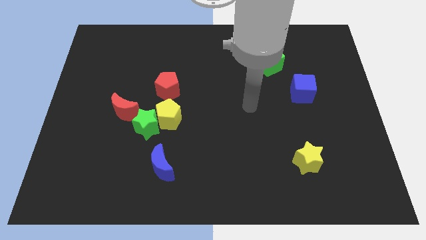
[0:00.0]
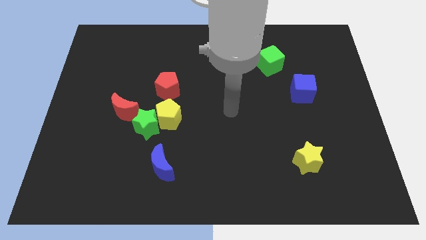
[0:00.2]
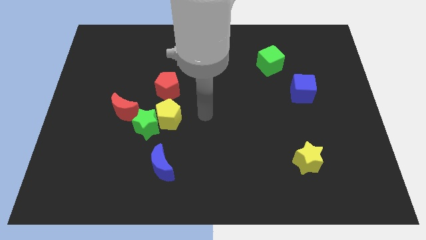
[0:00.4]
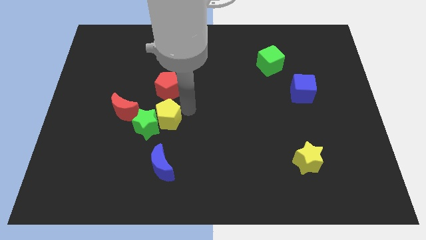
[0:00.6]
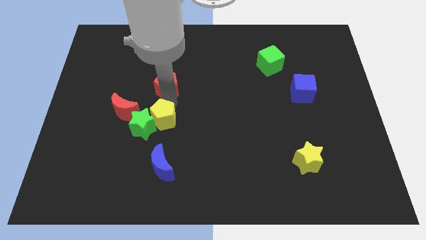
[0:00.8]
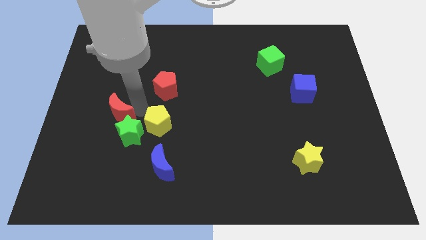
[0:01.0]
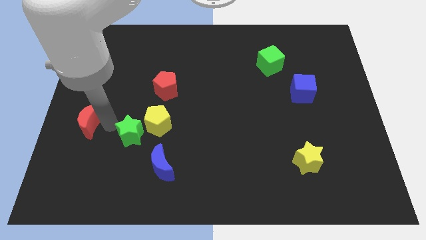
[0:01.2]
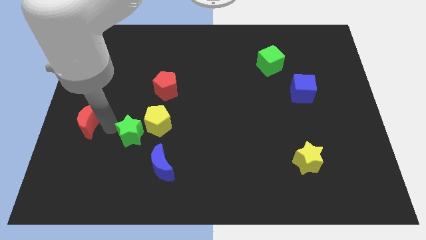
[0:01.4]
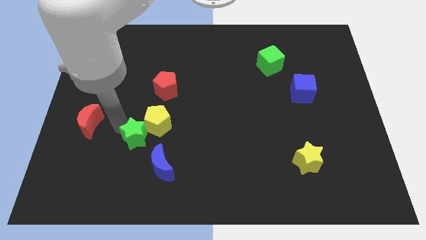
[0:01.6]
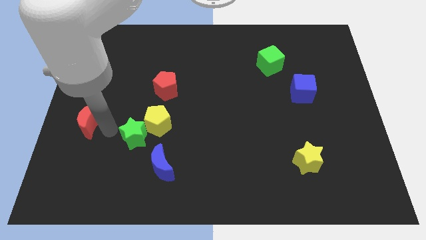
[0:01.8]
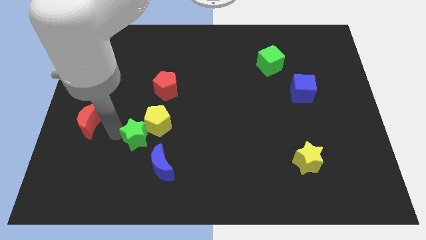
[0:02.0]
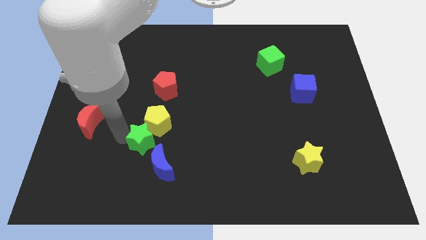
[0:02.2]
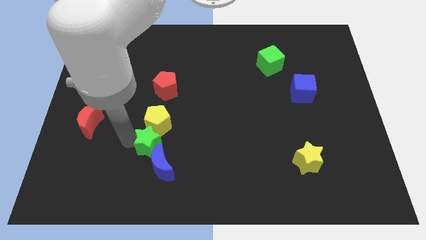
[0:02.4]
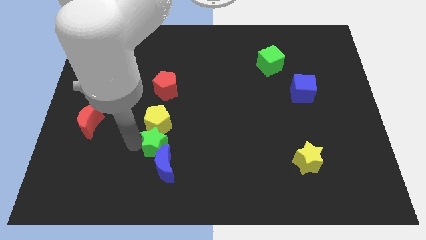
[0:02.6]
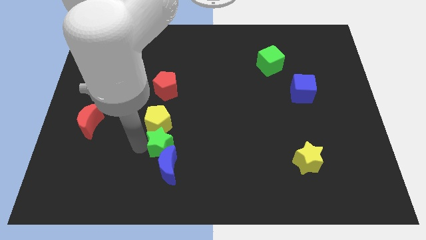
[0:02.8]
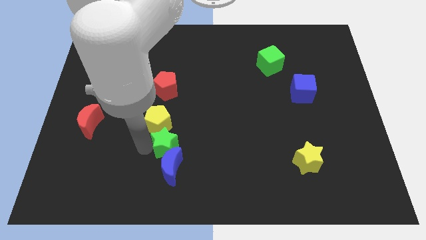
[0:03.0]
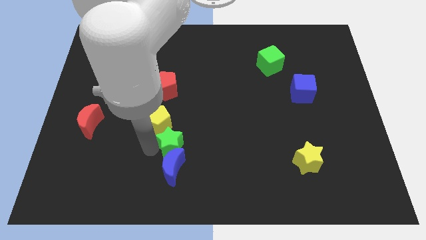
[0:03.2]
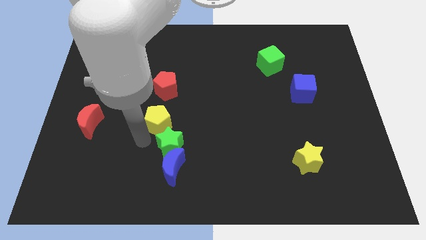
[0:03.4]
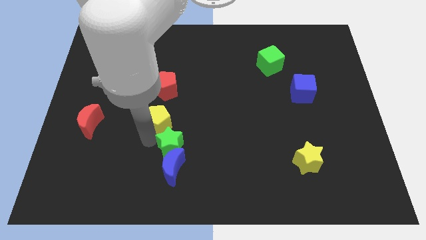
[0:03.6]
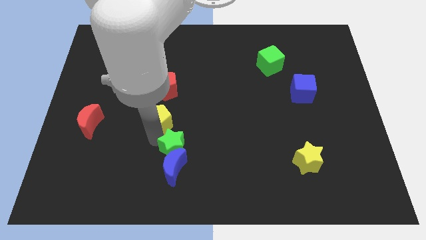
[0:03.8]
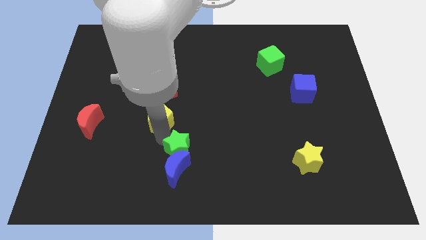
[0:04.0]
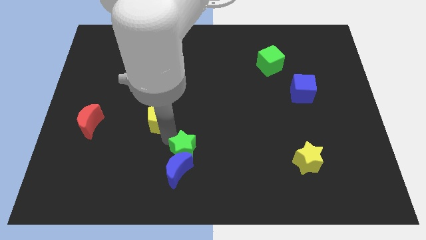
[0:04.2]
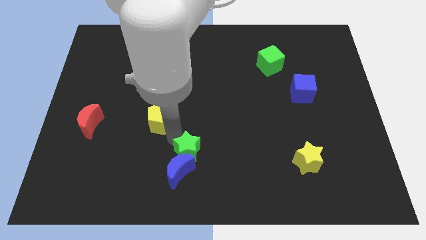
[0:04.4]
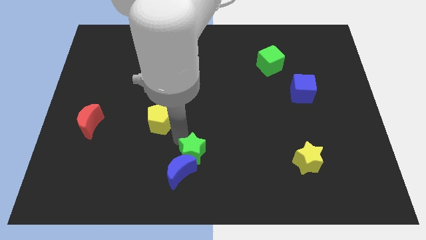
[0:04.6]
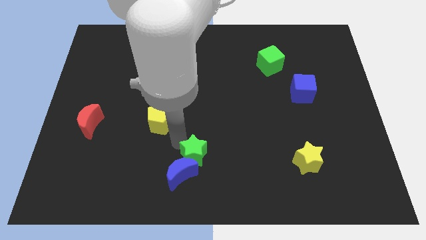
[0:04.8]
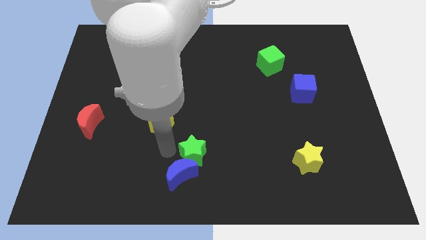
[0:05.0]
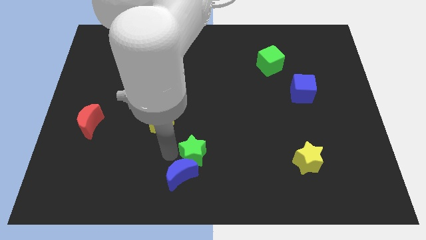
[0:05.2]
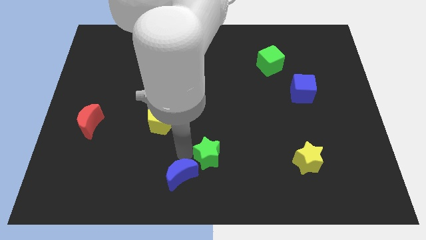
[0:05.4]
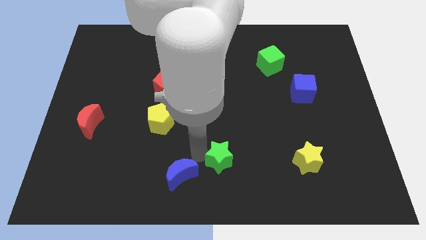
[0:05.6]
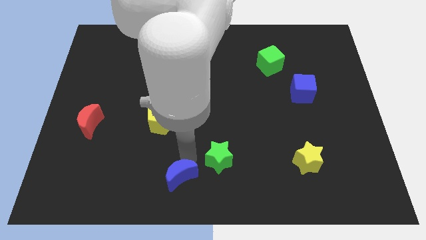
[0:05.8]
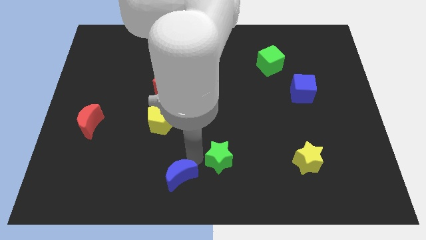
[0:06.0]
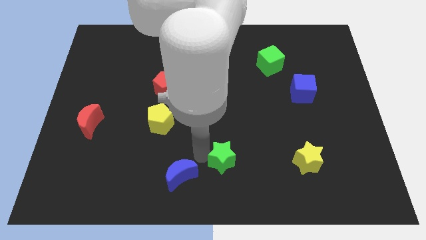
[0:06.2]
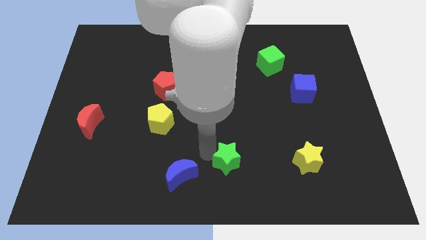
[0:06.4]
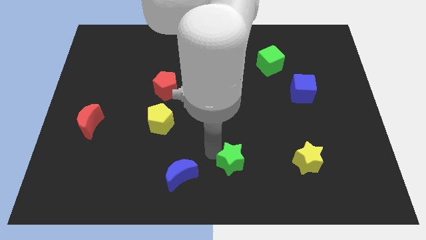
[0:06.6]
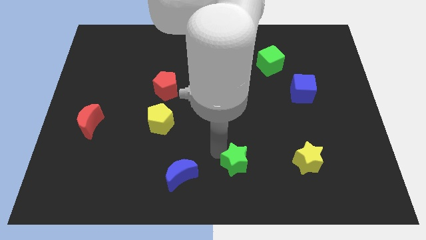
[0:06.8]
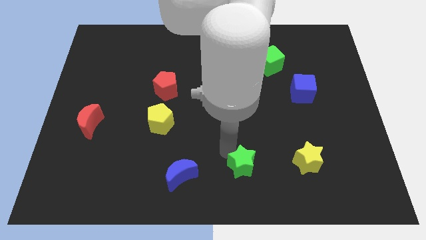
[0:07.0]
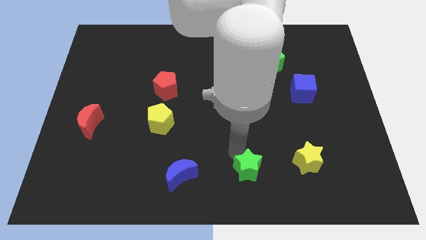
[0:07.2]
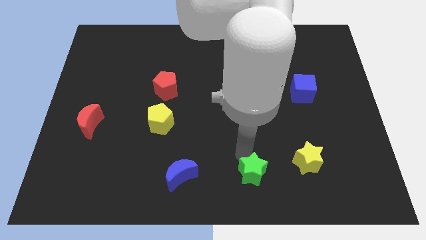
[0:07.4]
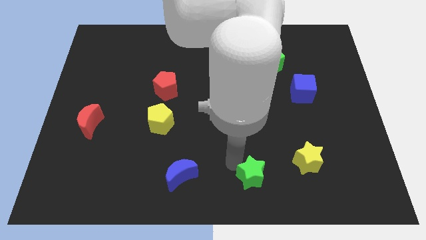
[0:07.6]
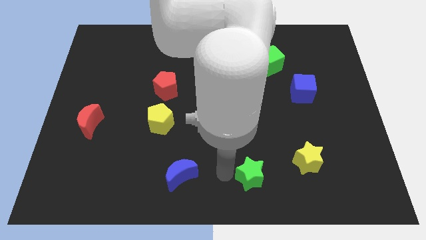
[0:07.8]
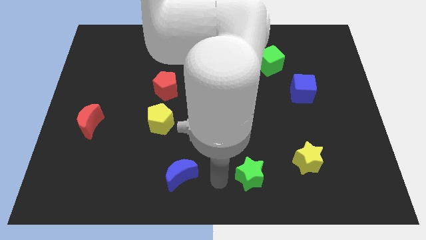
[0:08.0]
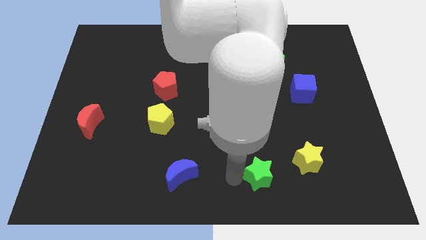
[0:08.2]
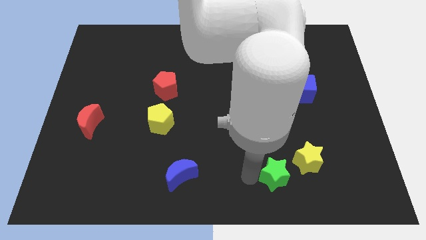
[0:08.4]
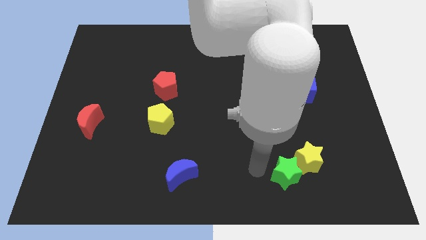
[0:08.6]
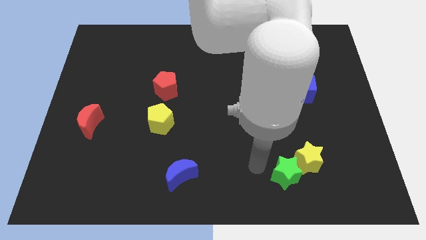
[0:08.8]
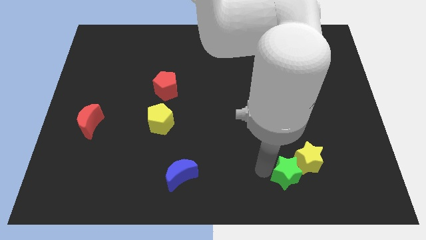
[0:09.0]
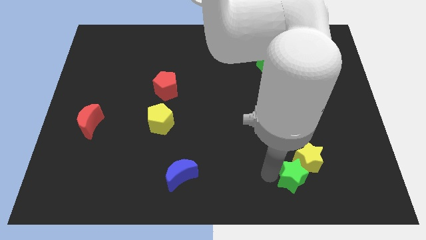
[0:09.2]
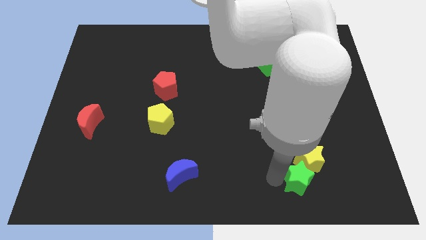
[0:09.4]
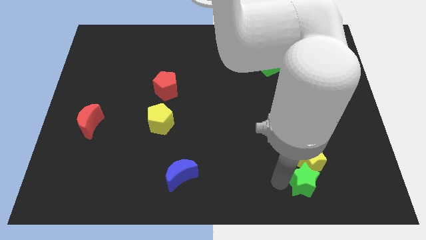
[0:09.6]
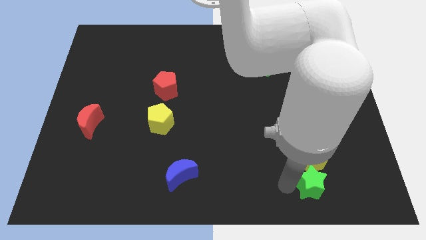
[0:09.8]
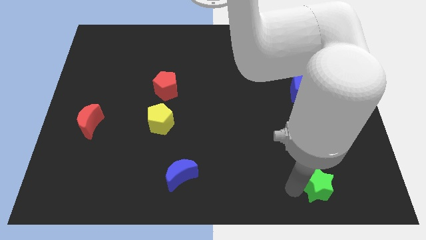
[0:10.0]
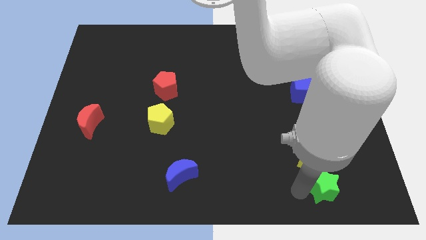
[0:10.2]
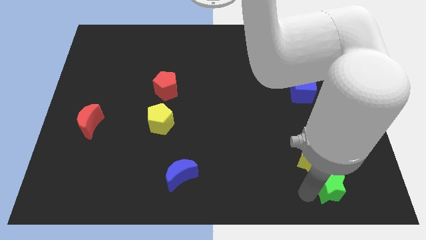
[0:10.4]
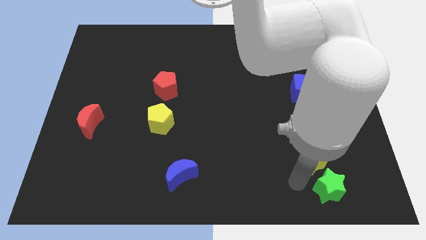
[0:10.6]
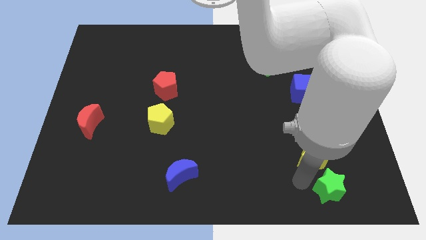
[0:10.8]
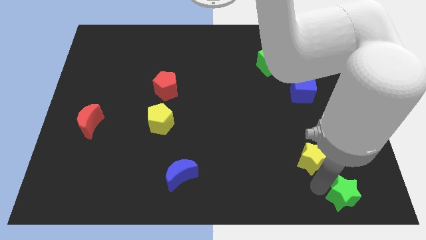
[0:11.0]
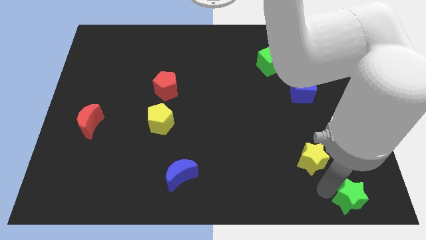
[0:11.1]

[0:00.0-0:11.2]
slide the green star to the bottom right of the board

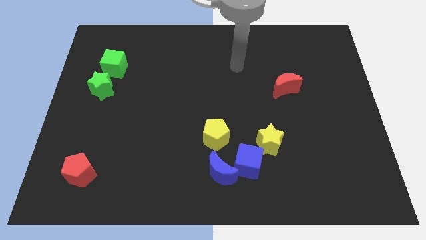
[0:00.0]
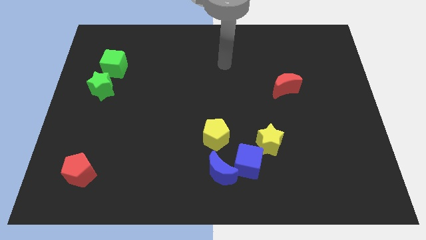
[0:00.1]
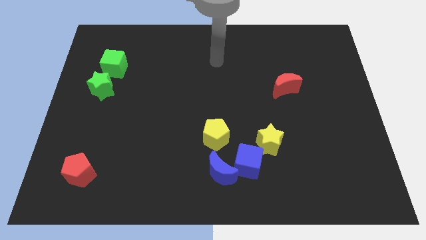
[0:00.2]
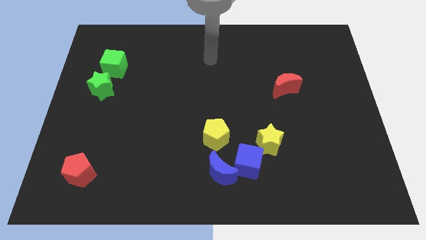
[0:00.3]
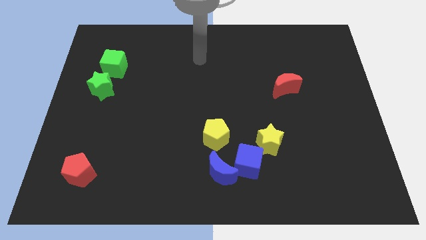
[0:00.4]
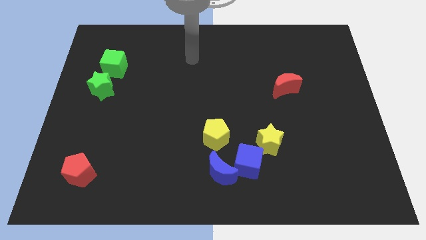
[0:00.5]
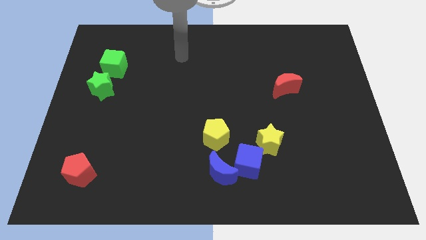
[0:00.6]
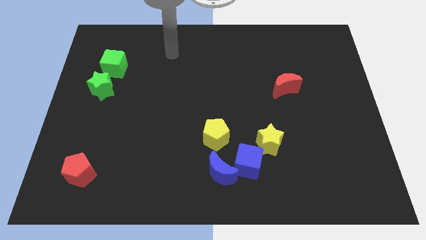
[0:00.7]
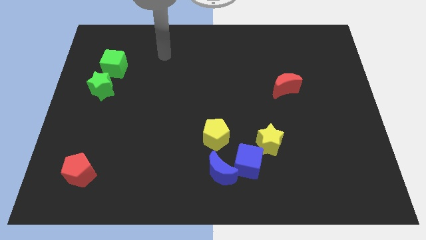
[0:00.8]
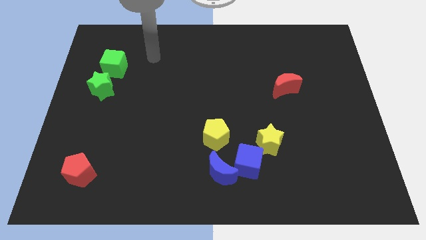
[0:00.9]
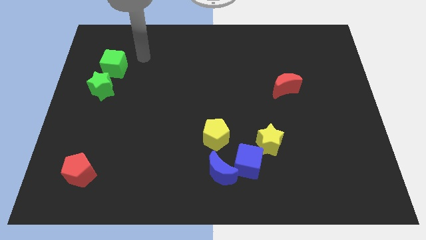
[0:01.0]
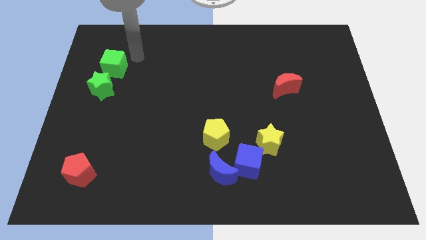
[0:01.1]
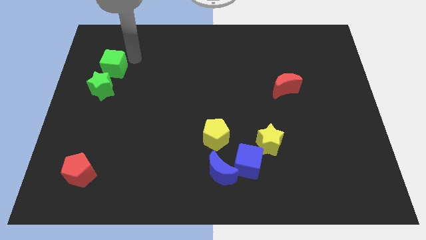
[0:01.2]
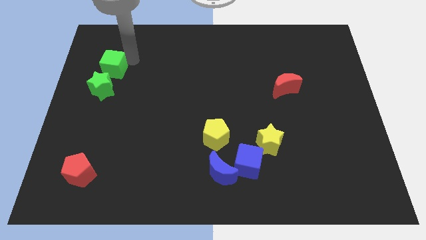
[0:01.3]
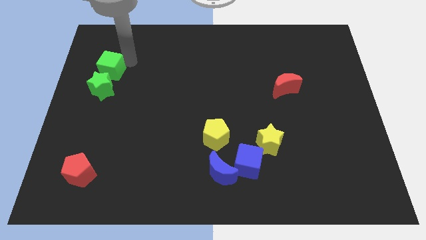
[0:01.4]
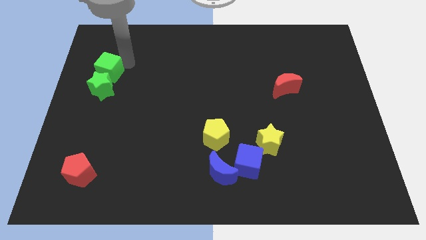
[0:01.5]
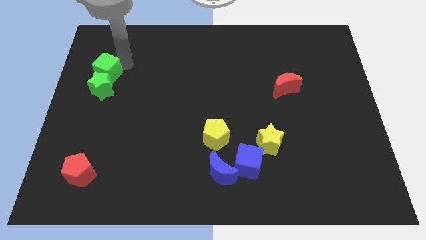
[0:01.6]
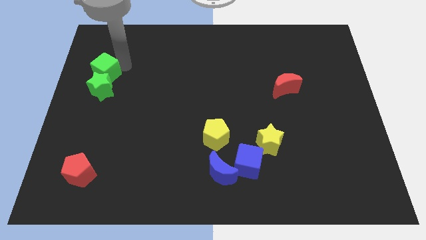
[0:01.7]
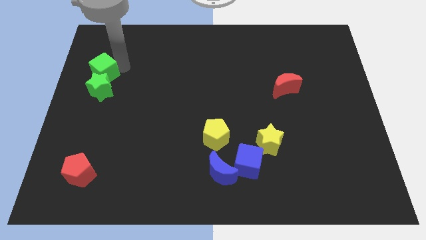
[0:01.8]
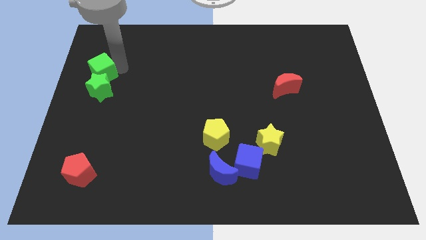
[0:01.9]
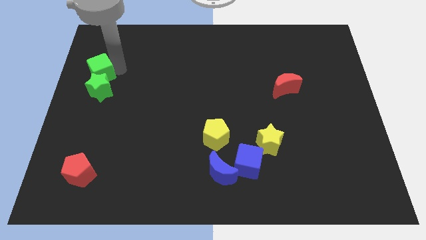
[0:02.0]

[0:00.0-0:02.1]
push the green cube to the left side
